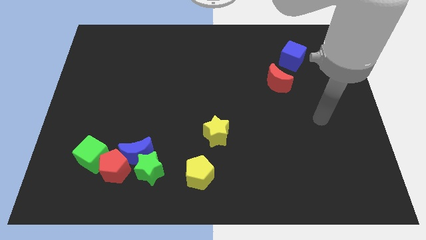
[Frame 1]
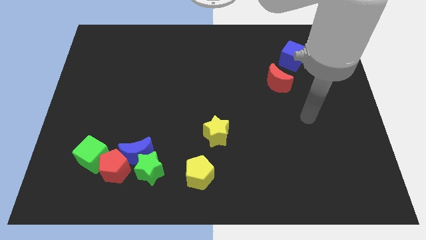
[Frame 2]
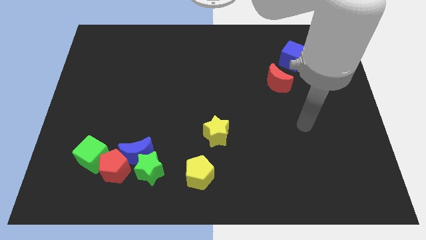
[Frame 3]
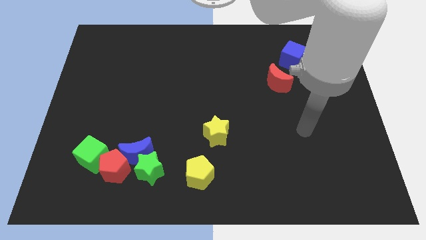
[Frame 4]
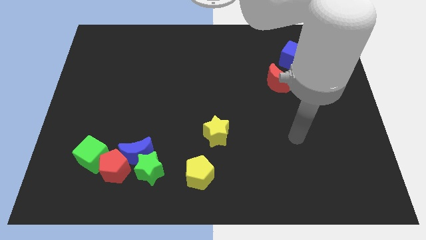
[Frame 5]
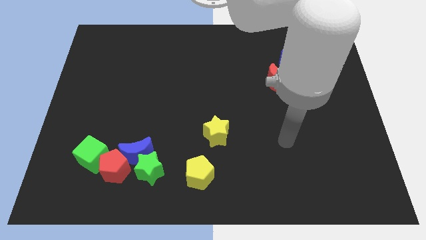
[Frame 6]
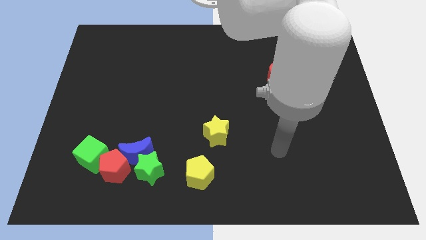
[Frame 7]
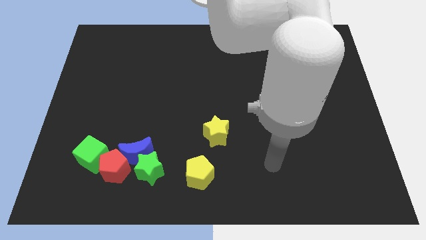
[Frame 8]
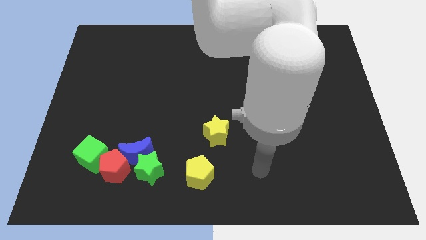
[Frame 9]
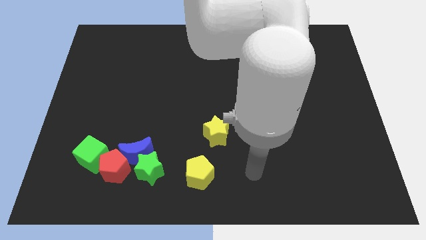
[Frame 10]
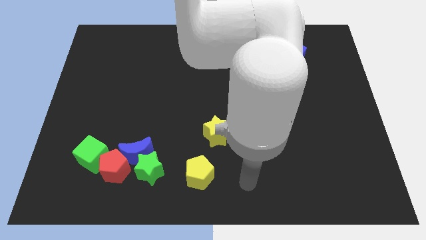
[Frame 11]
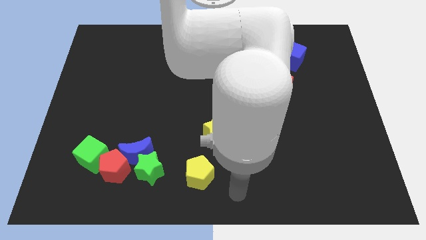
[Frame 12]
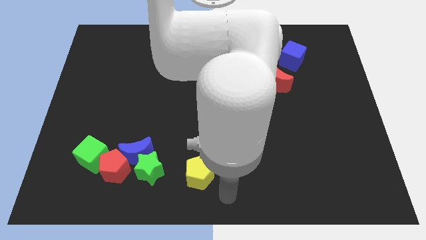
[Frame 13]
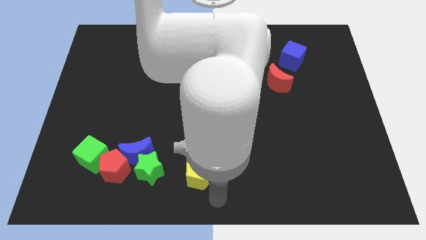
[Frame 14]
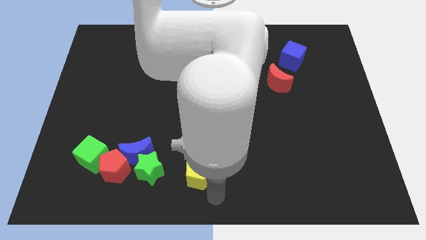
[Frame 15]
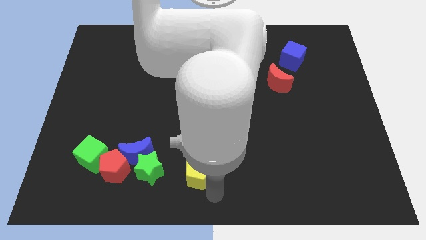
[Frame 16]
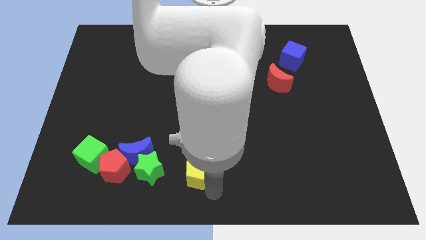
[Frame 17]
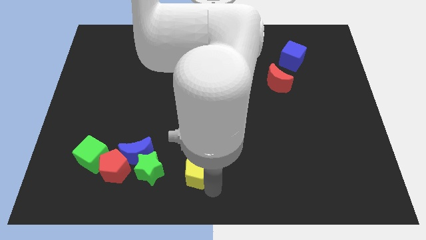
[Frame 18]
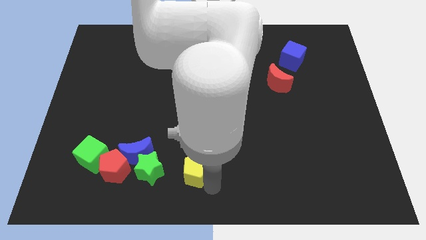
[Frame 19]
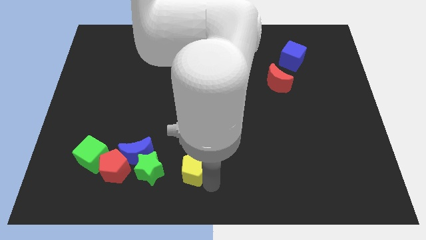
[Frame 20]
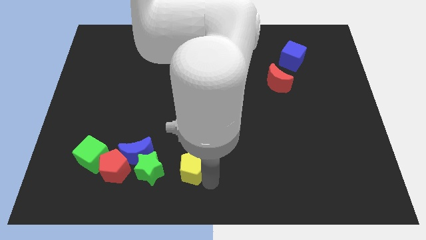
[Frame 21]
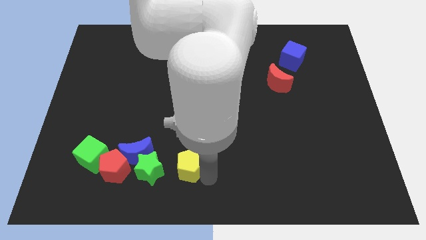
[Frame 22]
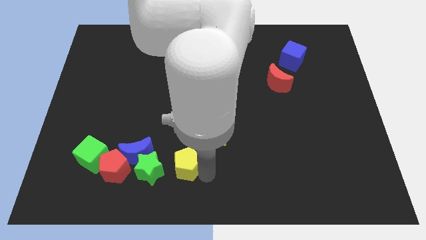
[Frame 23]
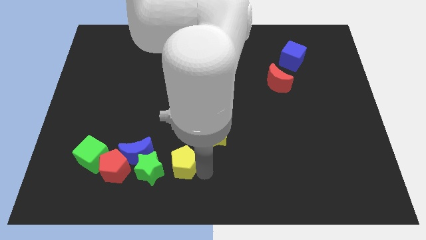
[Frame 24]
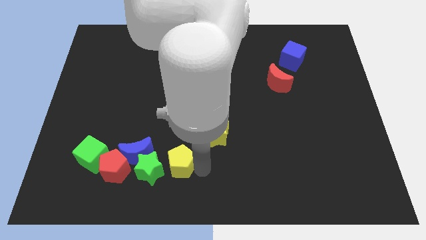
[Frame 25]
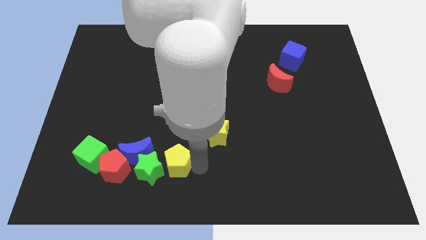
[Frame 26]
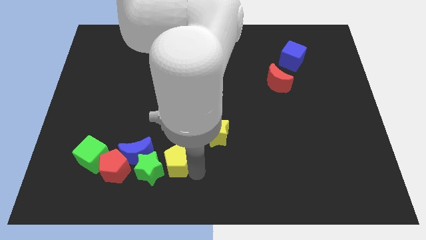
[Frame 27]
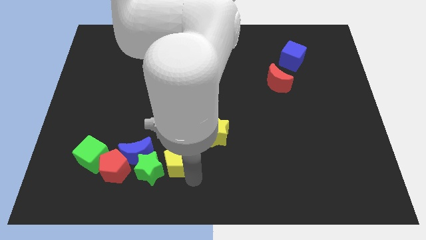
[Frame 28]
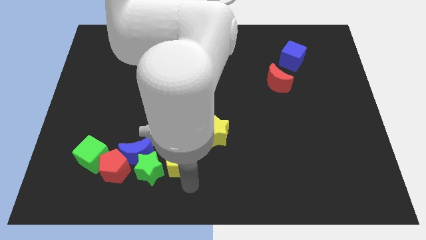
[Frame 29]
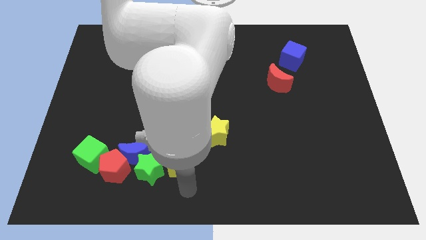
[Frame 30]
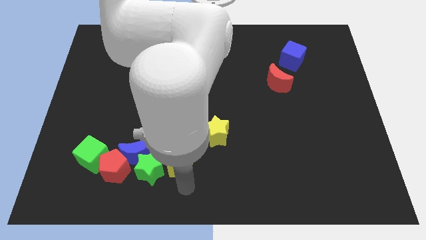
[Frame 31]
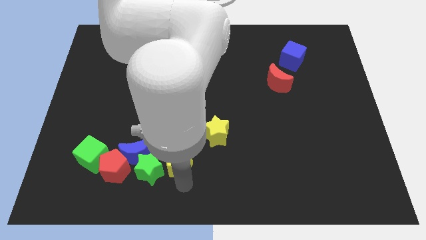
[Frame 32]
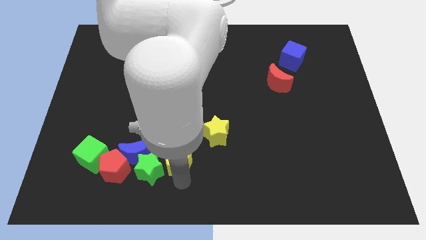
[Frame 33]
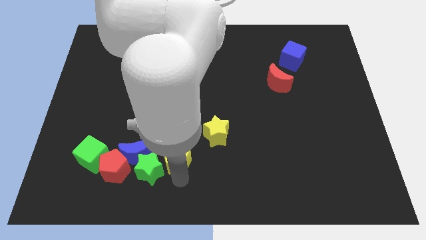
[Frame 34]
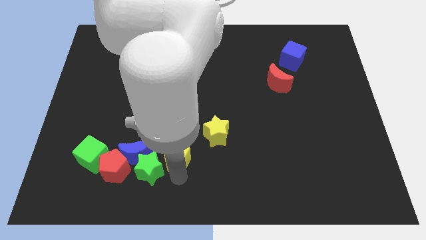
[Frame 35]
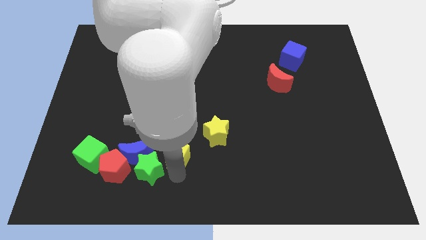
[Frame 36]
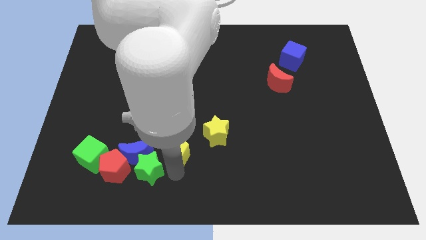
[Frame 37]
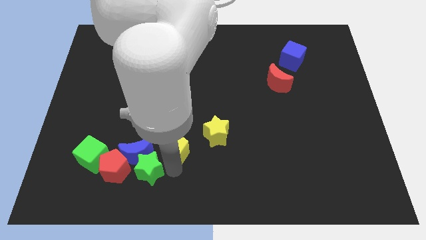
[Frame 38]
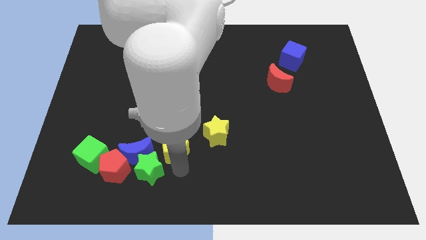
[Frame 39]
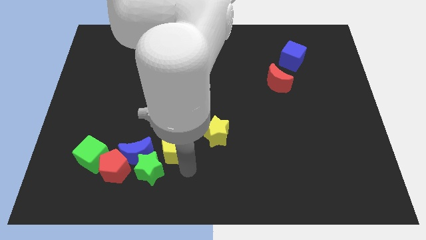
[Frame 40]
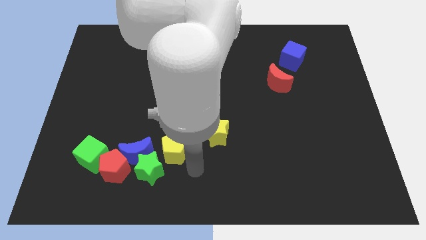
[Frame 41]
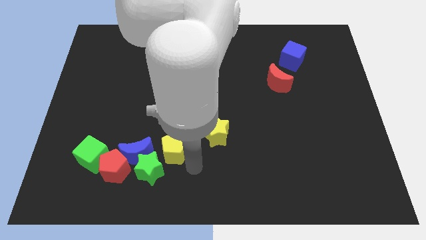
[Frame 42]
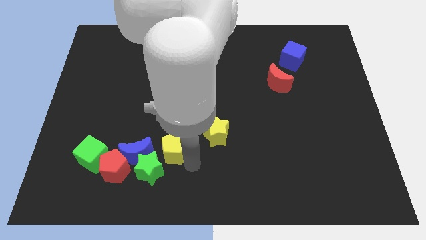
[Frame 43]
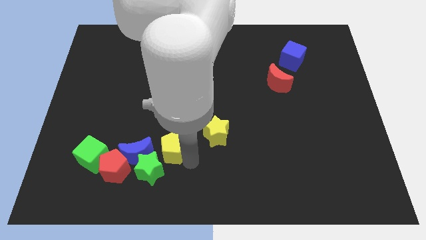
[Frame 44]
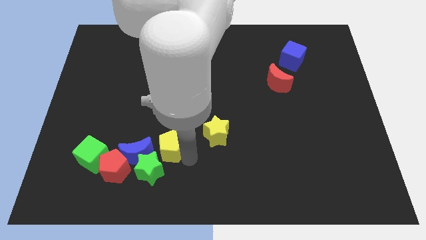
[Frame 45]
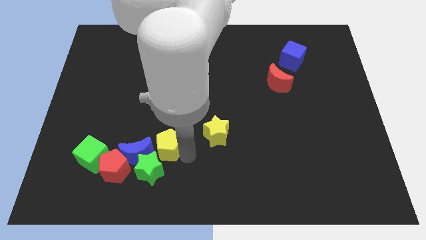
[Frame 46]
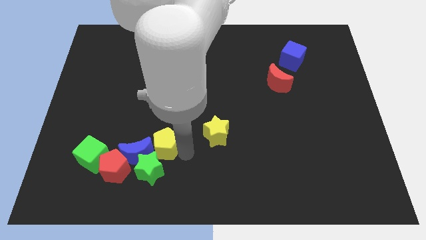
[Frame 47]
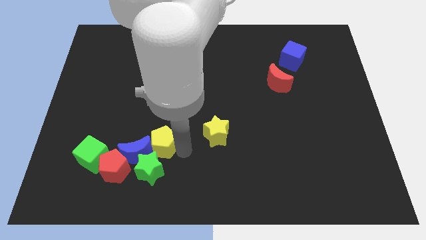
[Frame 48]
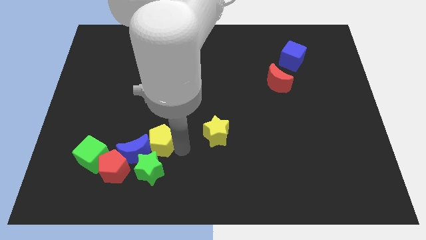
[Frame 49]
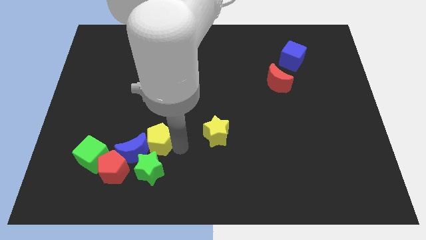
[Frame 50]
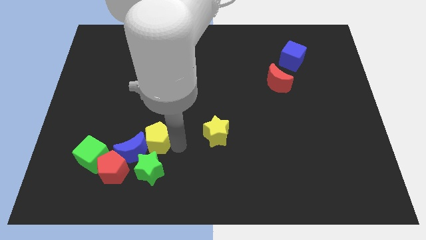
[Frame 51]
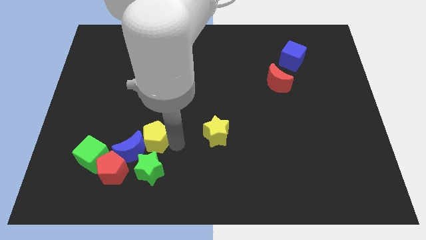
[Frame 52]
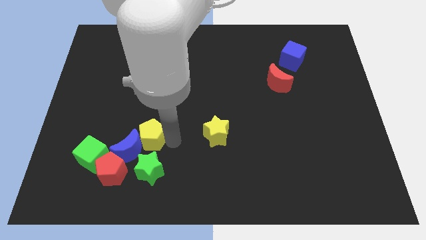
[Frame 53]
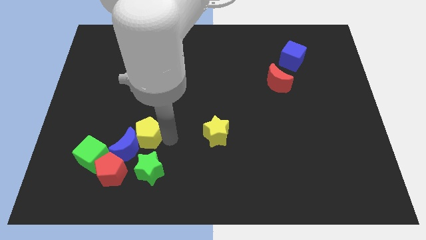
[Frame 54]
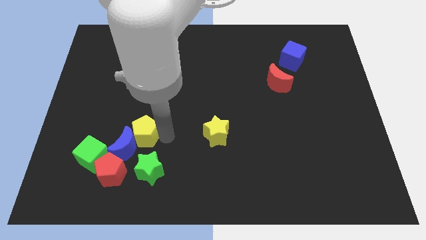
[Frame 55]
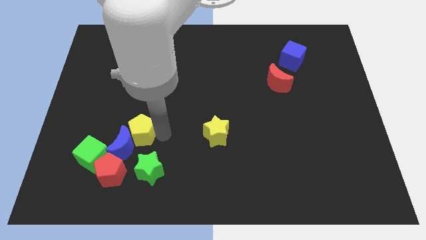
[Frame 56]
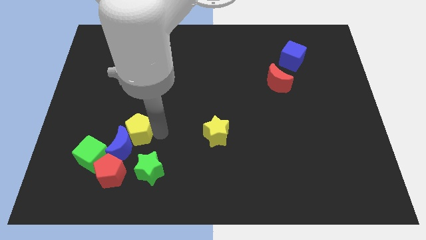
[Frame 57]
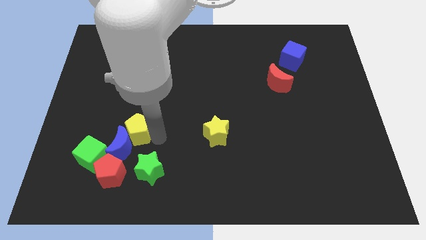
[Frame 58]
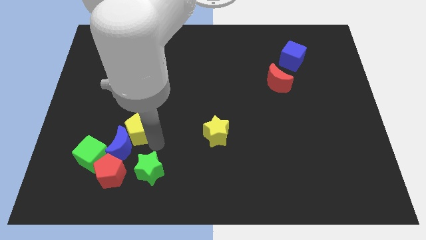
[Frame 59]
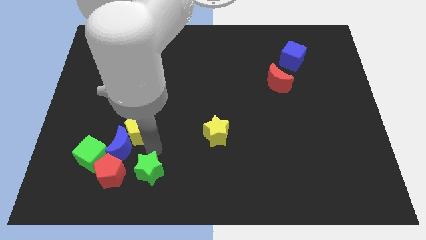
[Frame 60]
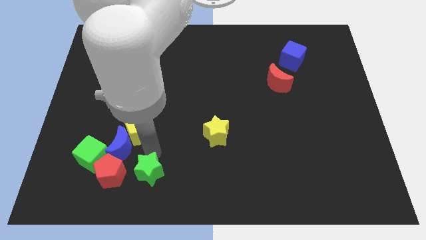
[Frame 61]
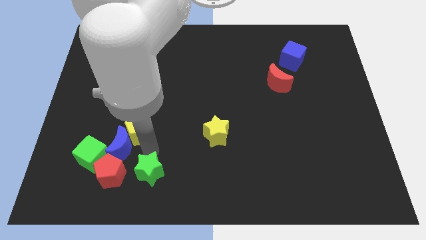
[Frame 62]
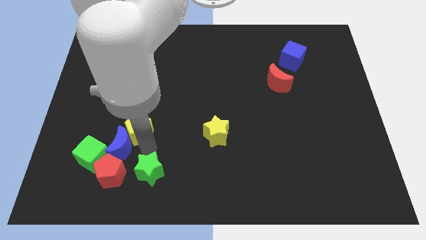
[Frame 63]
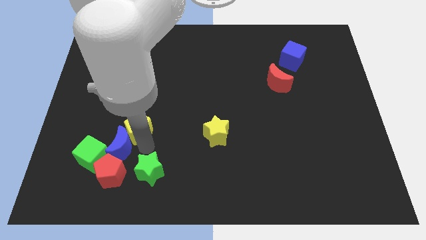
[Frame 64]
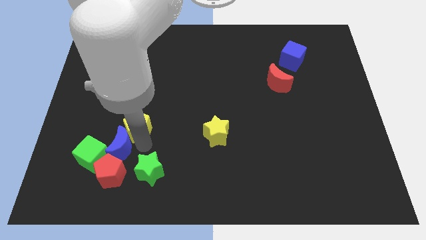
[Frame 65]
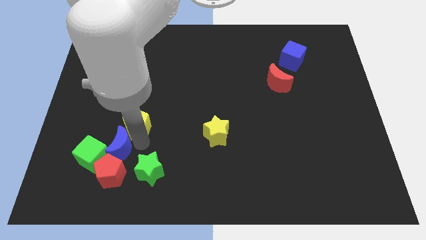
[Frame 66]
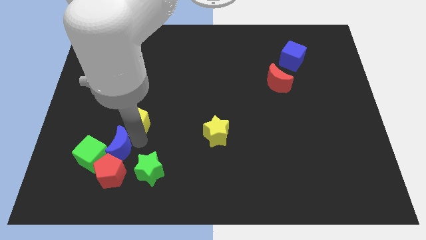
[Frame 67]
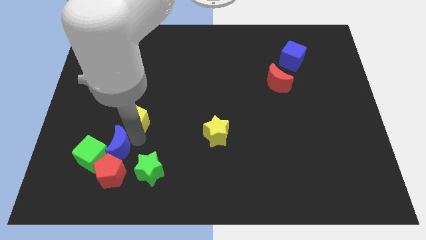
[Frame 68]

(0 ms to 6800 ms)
push the yellow pentagon upwards and left

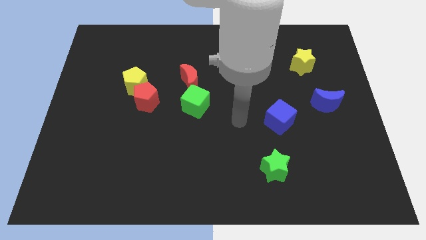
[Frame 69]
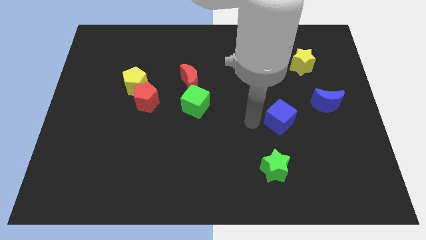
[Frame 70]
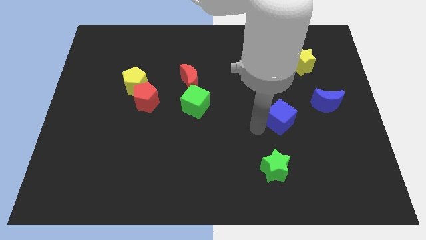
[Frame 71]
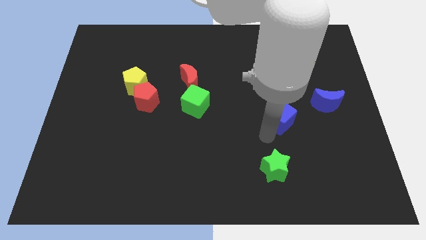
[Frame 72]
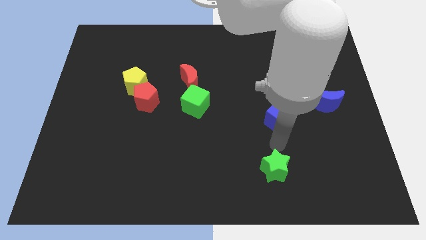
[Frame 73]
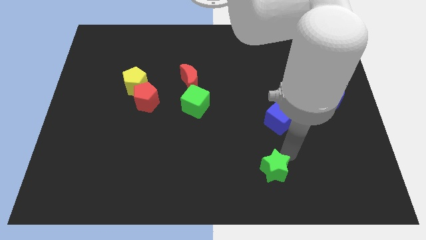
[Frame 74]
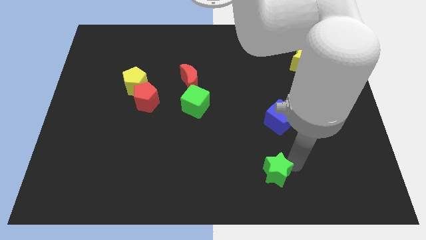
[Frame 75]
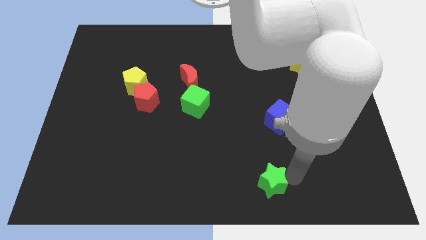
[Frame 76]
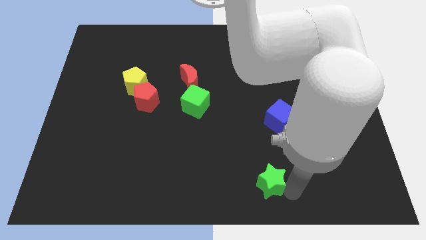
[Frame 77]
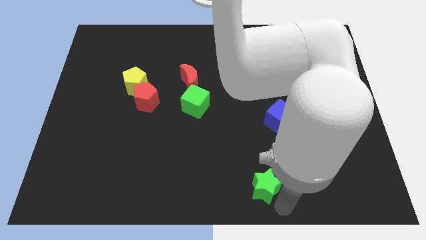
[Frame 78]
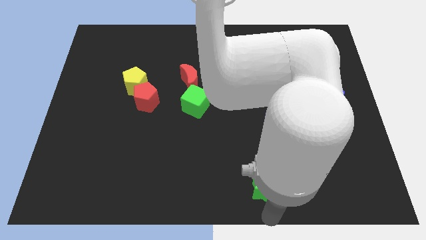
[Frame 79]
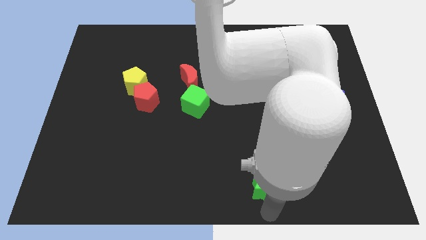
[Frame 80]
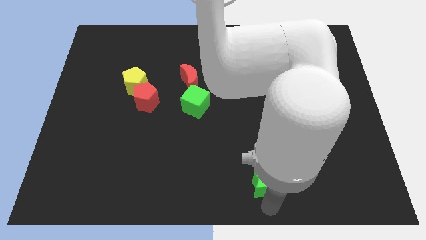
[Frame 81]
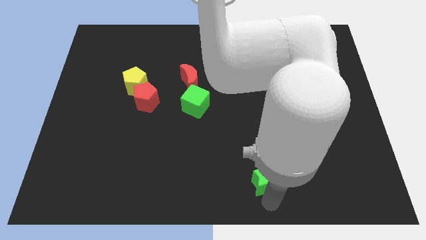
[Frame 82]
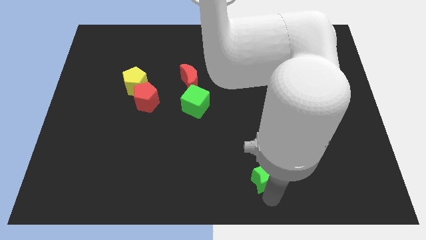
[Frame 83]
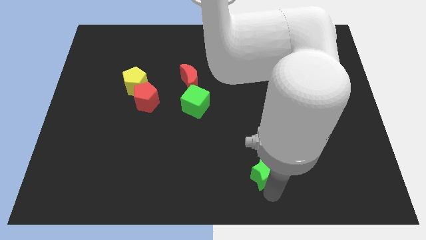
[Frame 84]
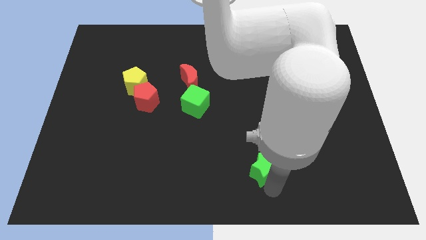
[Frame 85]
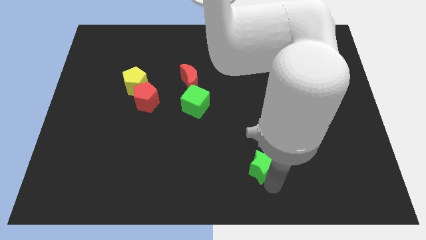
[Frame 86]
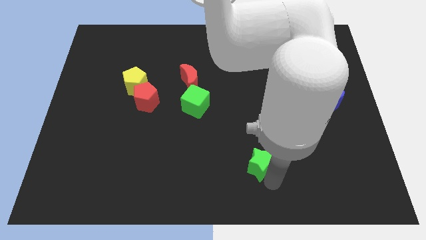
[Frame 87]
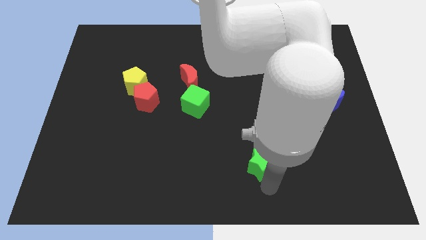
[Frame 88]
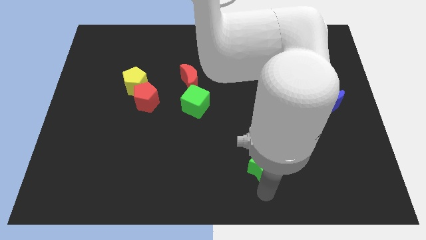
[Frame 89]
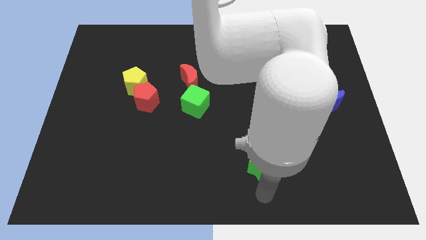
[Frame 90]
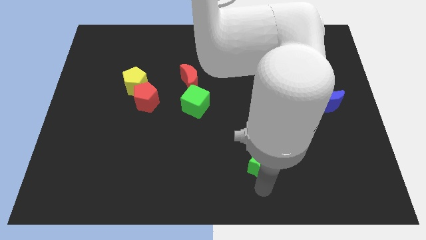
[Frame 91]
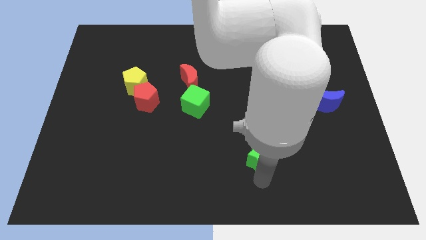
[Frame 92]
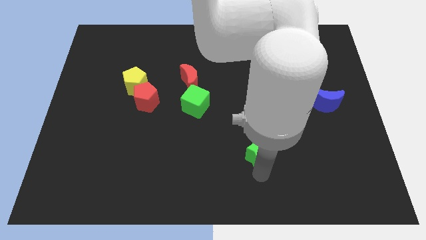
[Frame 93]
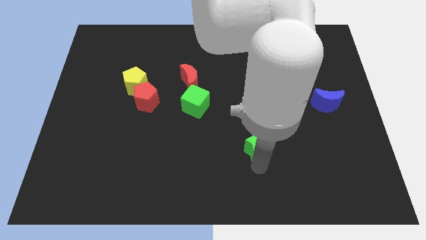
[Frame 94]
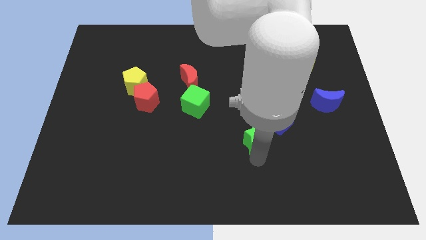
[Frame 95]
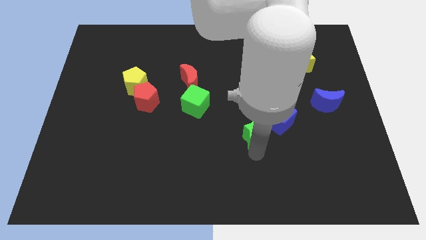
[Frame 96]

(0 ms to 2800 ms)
slide the green star upwards a bit
